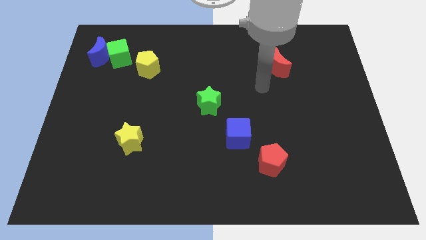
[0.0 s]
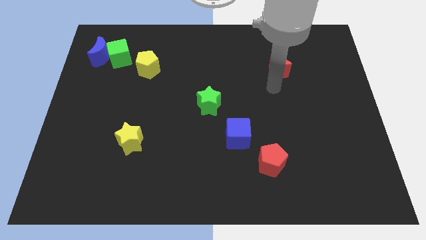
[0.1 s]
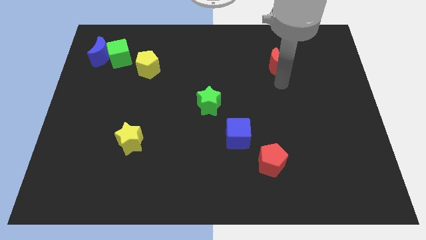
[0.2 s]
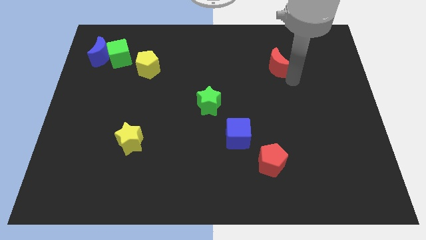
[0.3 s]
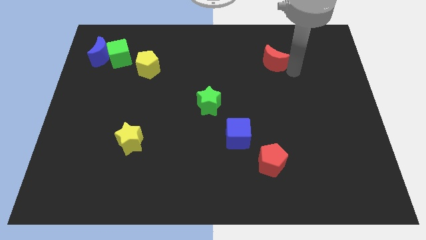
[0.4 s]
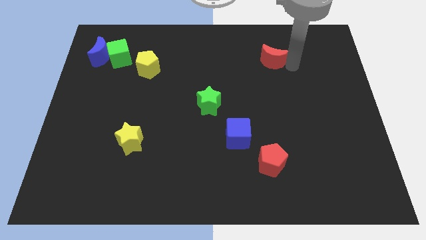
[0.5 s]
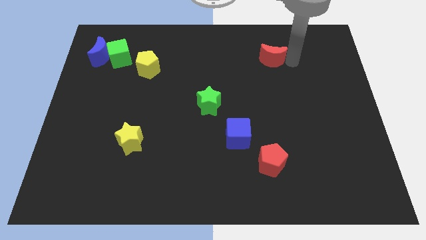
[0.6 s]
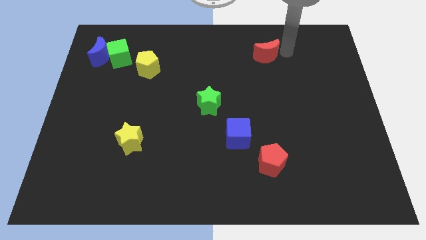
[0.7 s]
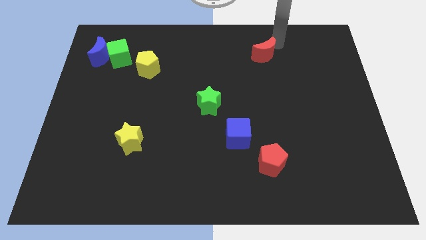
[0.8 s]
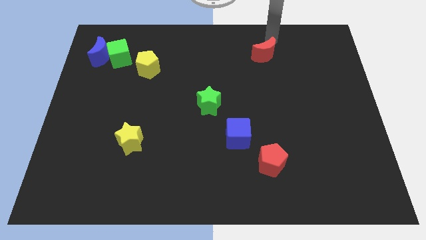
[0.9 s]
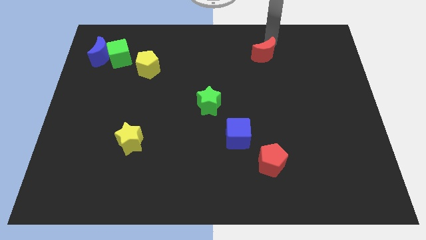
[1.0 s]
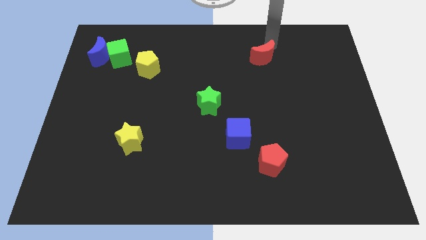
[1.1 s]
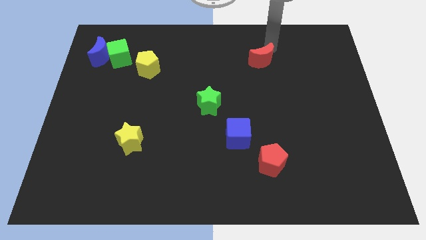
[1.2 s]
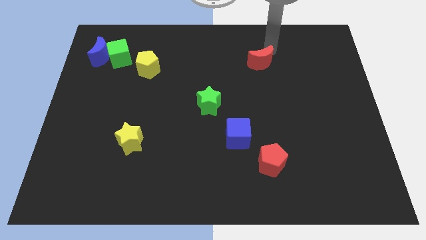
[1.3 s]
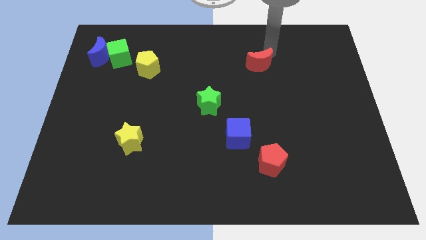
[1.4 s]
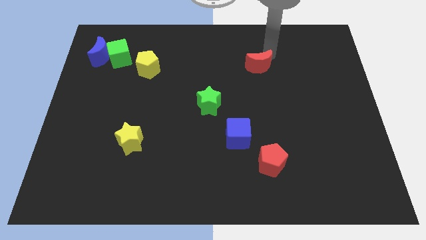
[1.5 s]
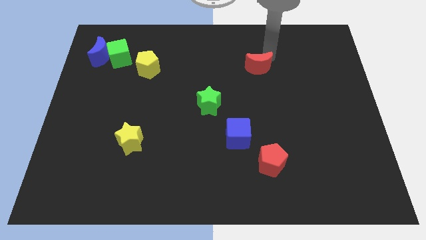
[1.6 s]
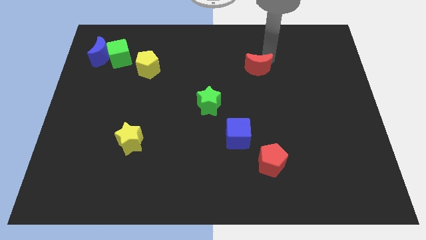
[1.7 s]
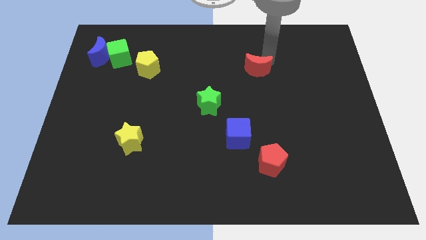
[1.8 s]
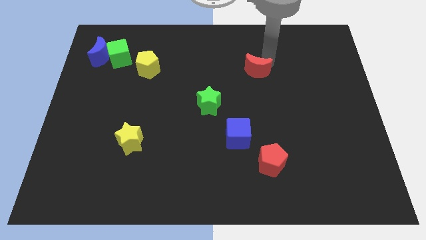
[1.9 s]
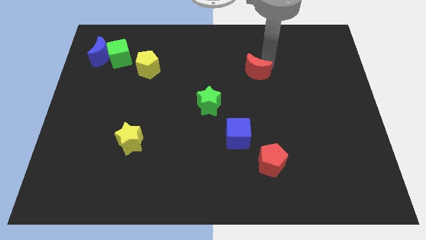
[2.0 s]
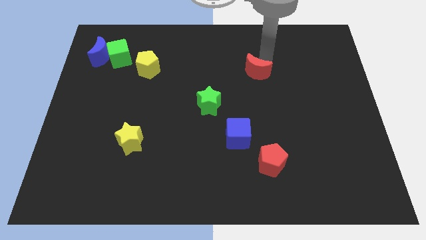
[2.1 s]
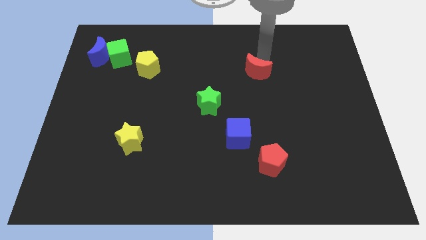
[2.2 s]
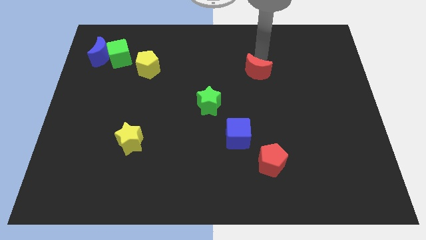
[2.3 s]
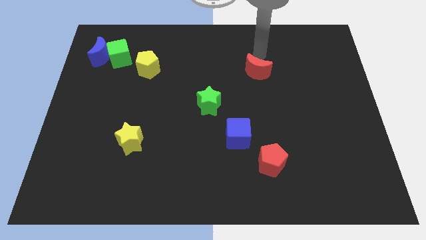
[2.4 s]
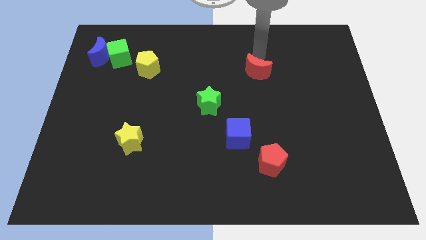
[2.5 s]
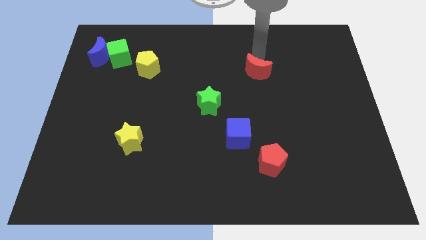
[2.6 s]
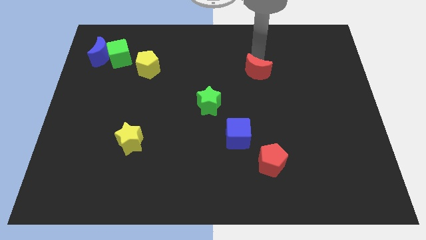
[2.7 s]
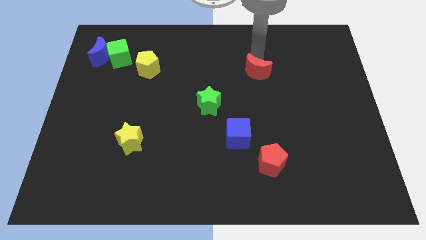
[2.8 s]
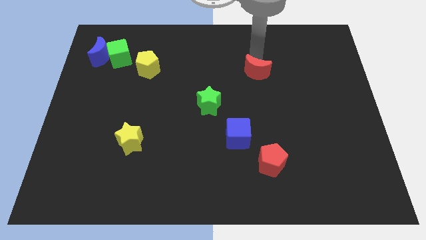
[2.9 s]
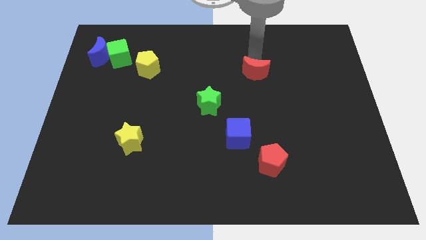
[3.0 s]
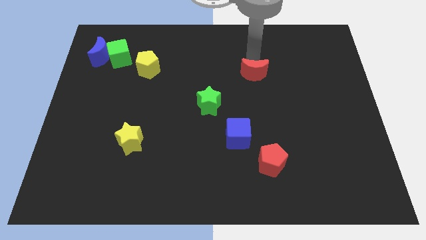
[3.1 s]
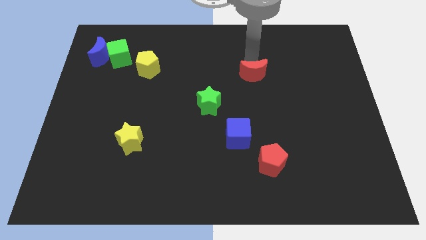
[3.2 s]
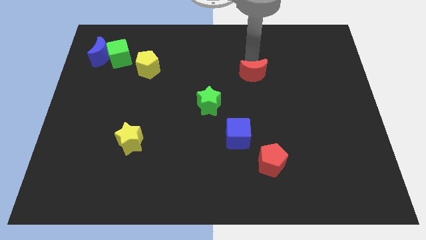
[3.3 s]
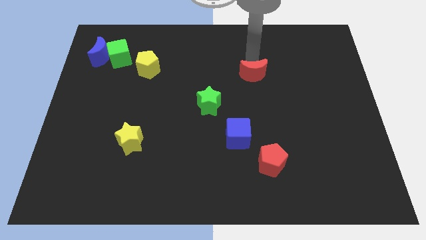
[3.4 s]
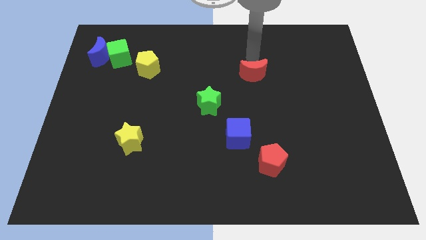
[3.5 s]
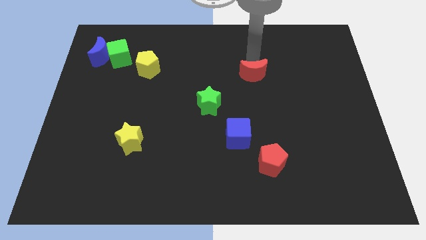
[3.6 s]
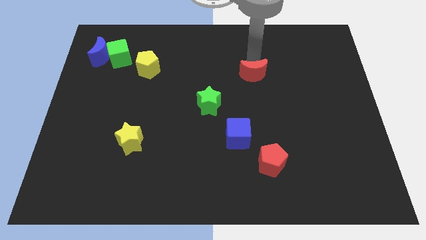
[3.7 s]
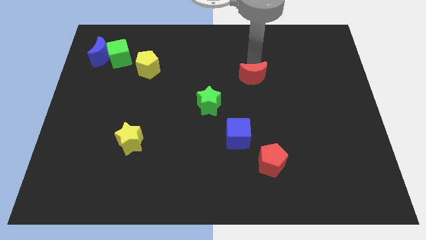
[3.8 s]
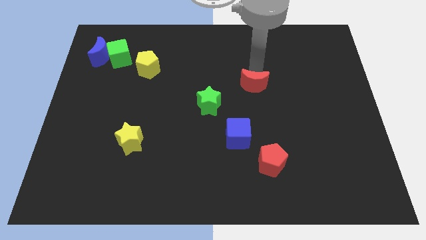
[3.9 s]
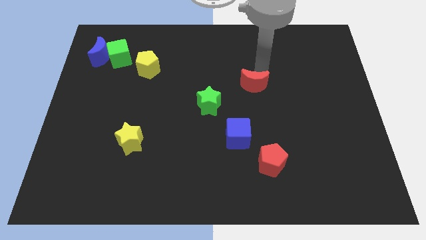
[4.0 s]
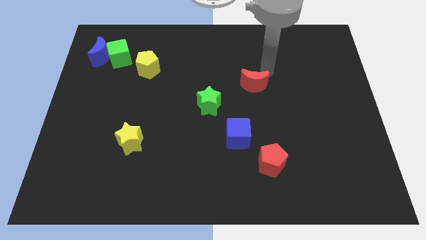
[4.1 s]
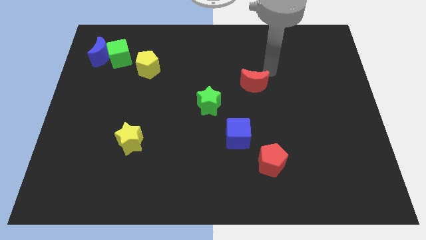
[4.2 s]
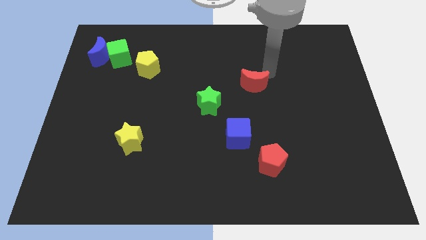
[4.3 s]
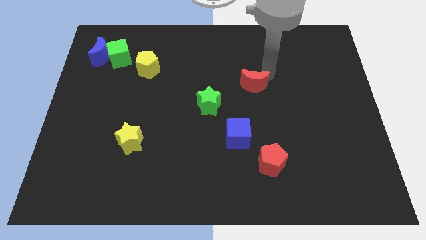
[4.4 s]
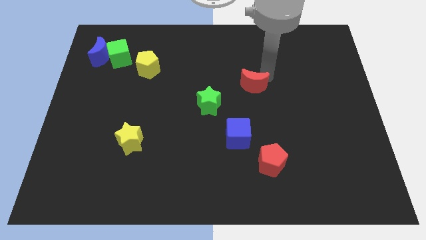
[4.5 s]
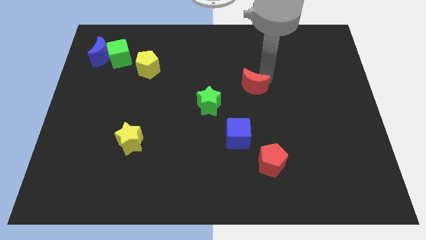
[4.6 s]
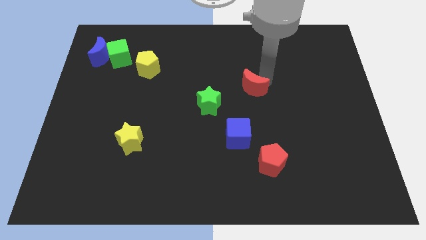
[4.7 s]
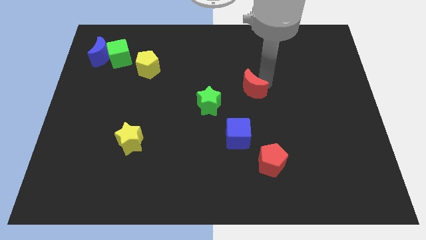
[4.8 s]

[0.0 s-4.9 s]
move the red moon to the top side of the blue cube

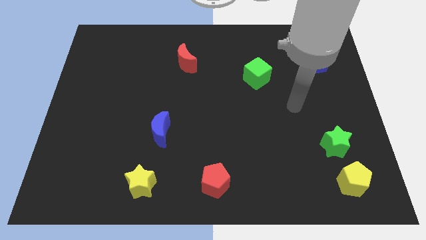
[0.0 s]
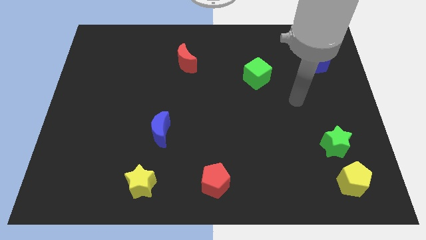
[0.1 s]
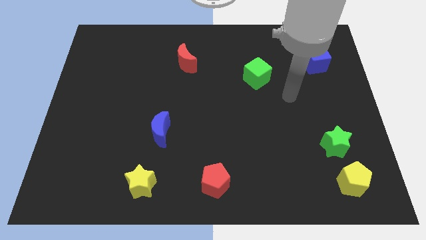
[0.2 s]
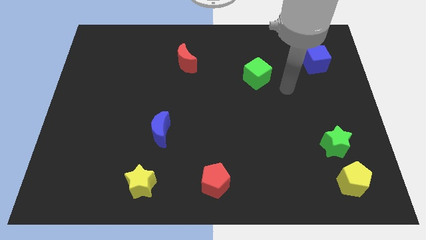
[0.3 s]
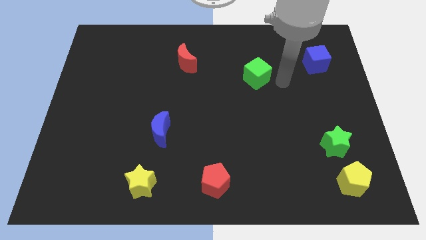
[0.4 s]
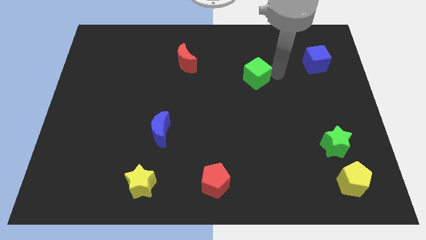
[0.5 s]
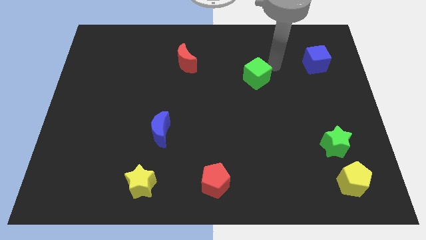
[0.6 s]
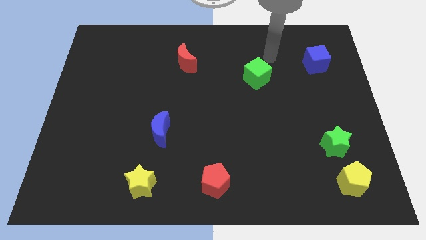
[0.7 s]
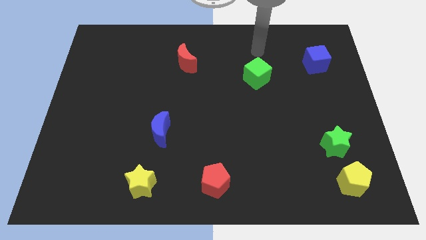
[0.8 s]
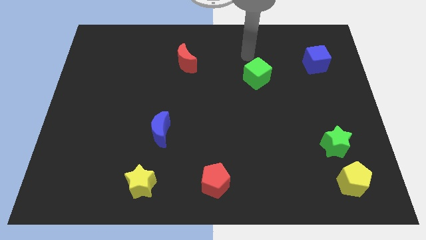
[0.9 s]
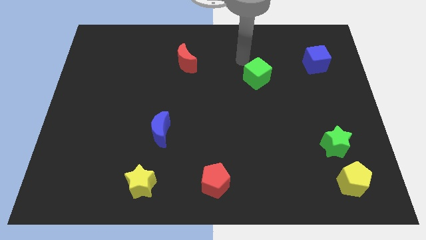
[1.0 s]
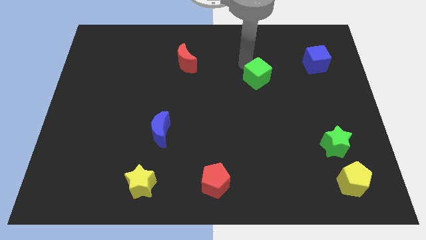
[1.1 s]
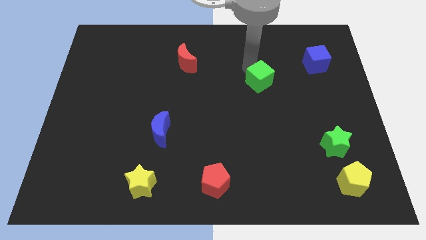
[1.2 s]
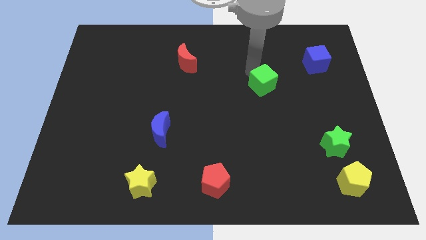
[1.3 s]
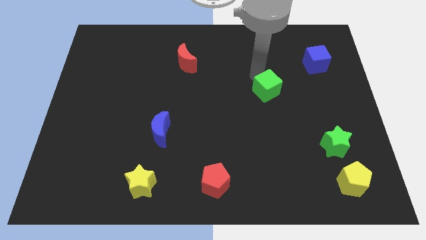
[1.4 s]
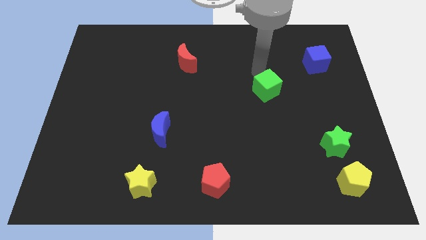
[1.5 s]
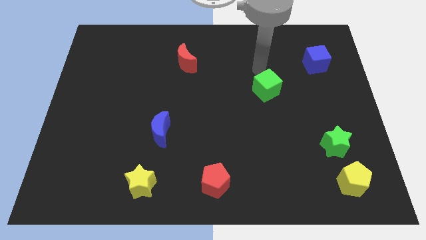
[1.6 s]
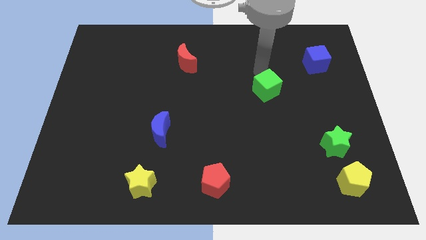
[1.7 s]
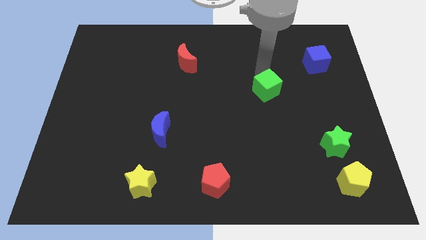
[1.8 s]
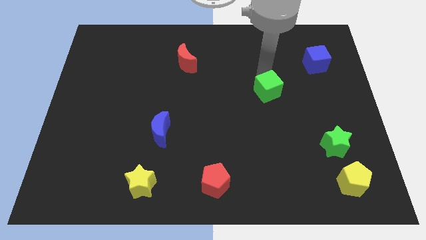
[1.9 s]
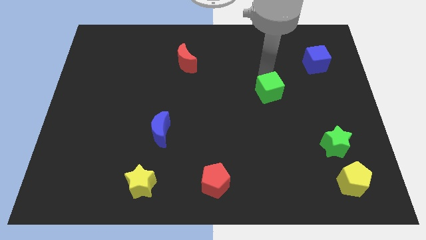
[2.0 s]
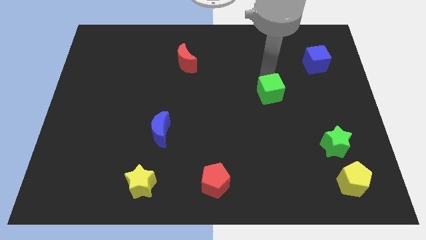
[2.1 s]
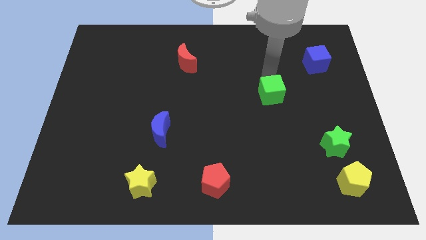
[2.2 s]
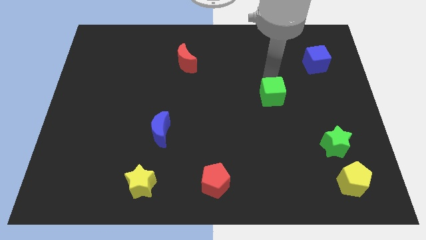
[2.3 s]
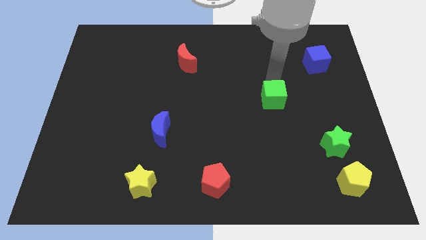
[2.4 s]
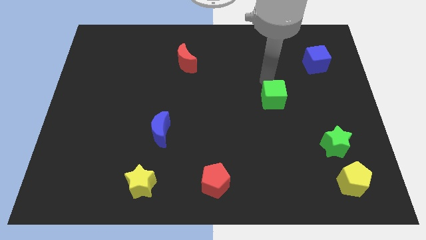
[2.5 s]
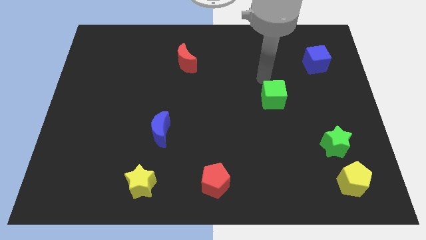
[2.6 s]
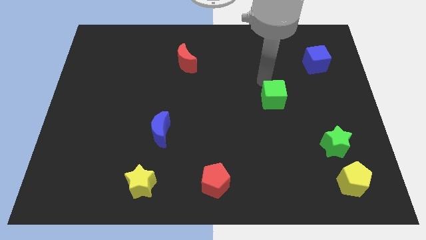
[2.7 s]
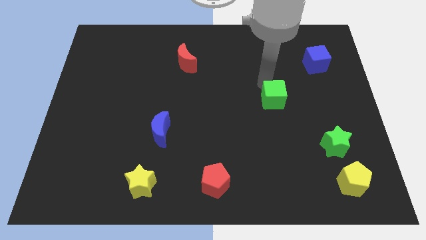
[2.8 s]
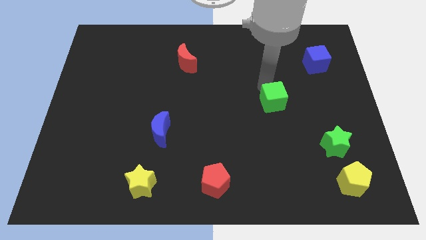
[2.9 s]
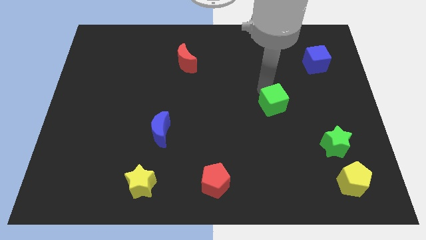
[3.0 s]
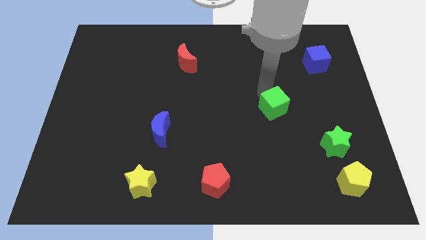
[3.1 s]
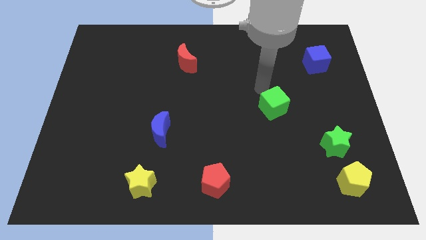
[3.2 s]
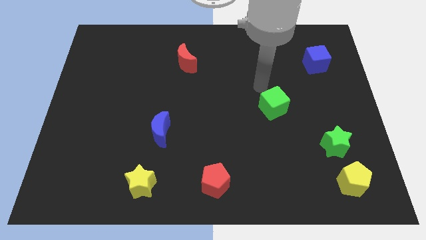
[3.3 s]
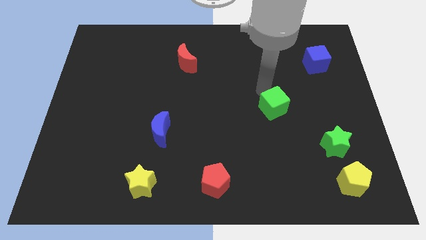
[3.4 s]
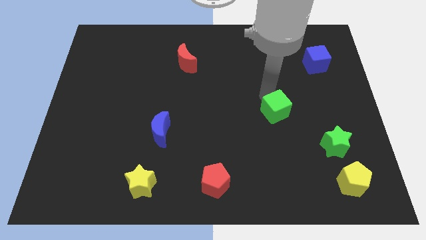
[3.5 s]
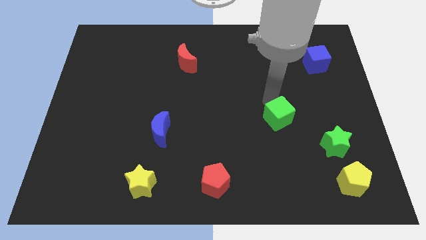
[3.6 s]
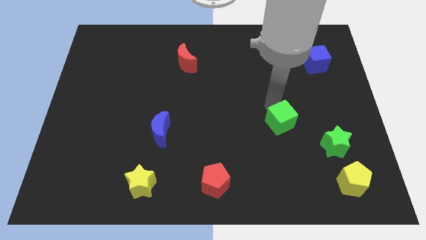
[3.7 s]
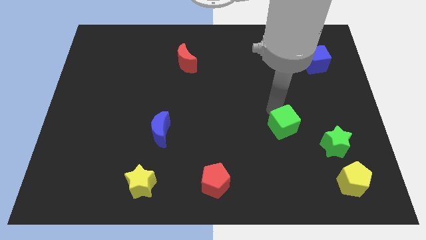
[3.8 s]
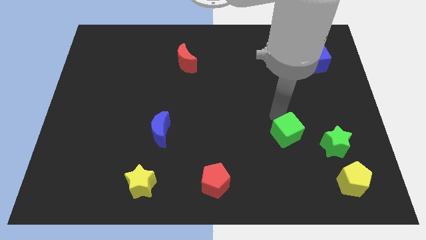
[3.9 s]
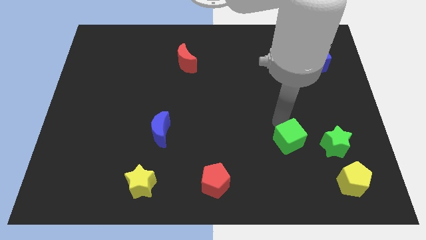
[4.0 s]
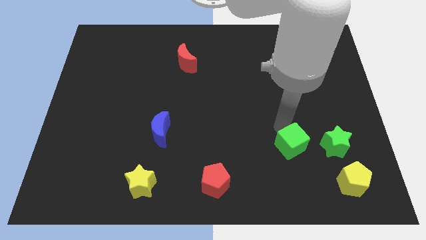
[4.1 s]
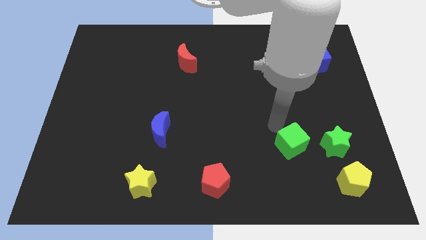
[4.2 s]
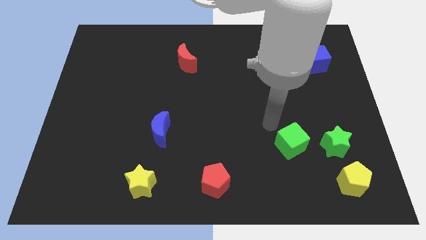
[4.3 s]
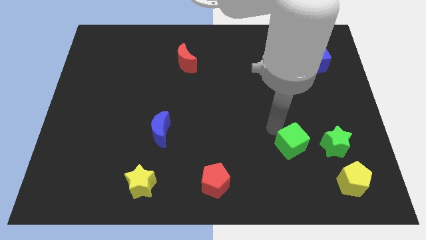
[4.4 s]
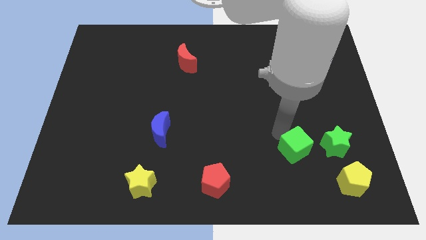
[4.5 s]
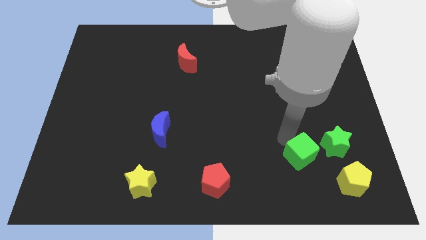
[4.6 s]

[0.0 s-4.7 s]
slide the green cube diagonally down and to the left of the green star
